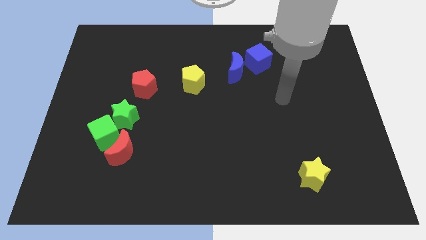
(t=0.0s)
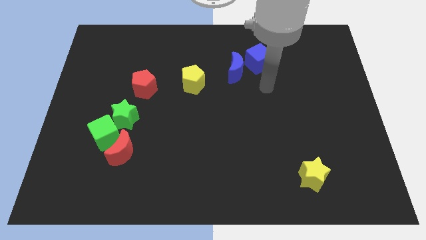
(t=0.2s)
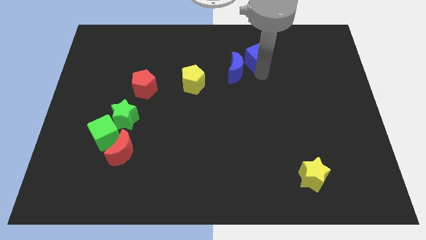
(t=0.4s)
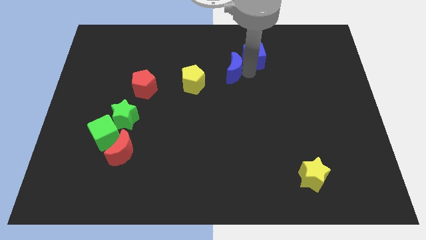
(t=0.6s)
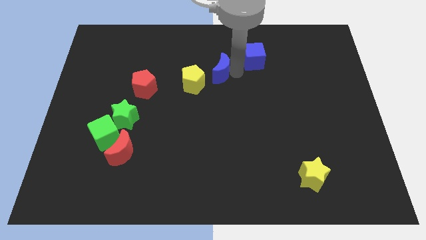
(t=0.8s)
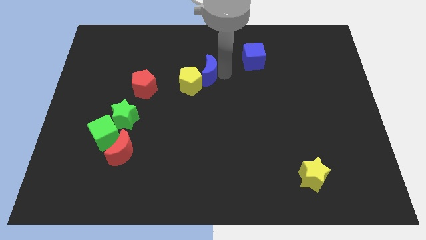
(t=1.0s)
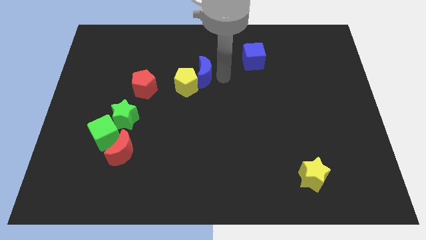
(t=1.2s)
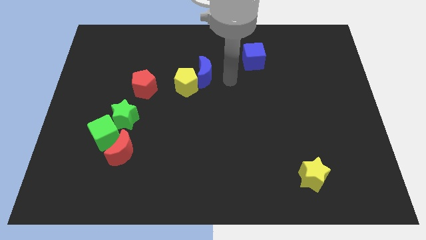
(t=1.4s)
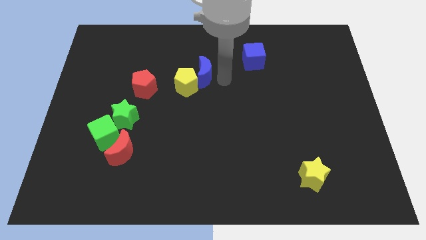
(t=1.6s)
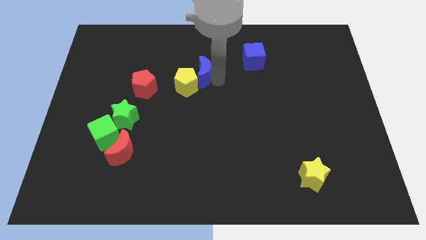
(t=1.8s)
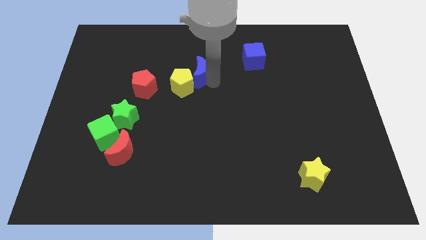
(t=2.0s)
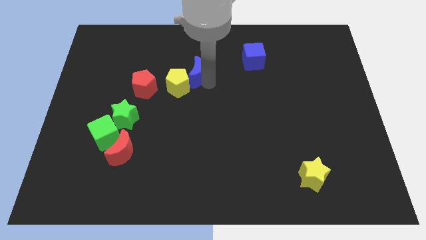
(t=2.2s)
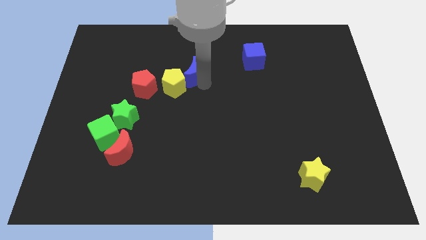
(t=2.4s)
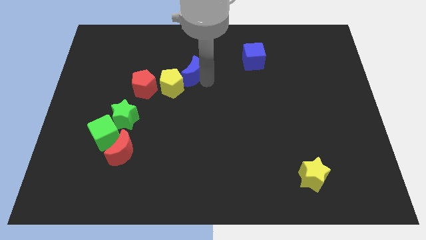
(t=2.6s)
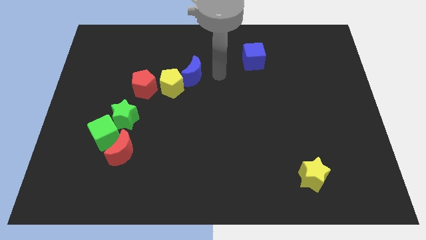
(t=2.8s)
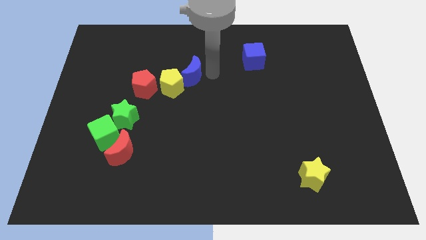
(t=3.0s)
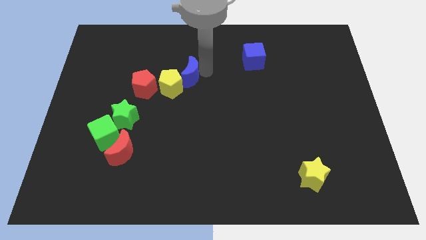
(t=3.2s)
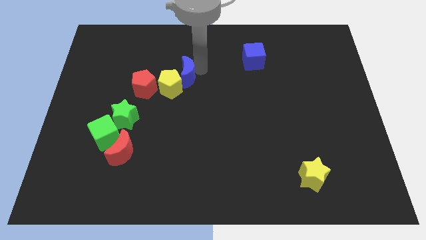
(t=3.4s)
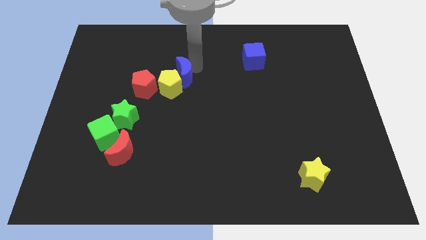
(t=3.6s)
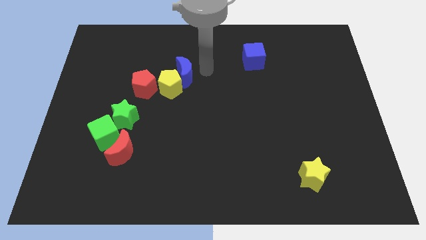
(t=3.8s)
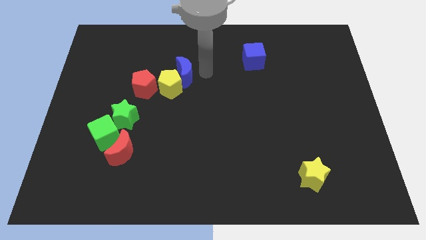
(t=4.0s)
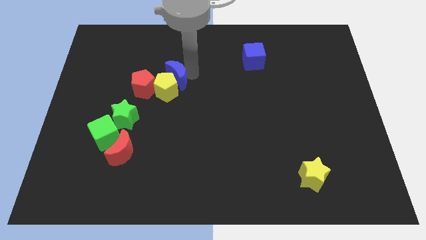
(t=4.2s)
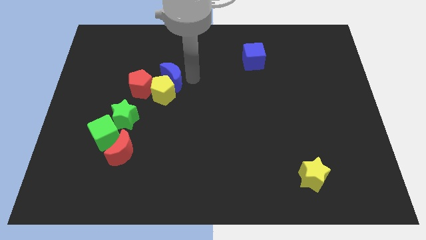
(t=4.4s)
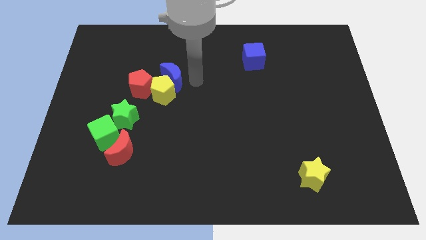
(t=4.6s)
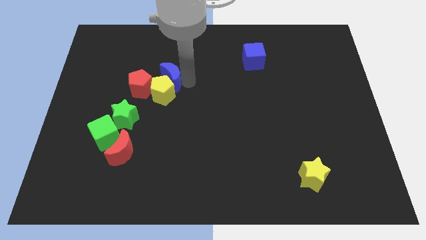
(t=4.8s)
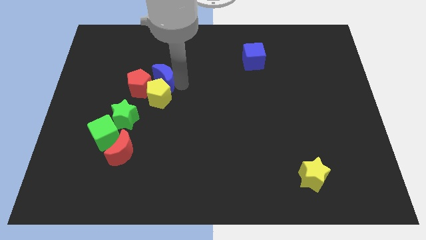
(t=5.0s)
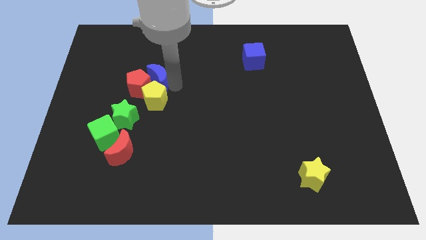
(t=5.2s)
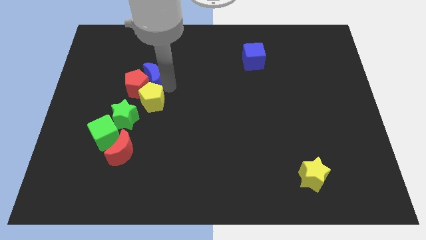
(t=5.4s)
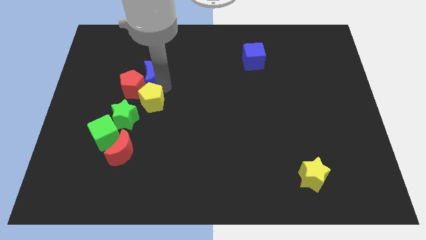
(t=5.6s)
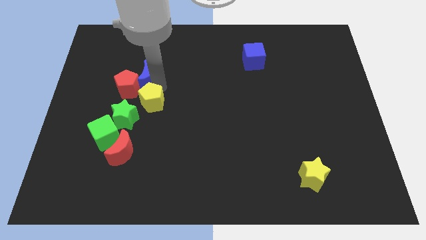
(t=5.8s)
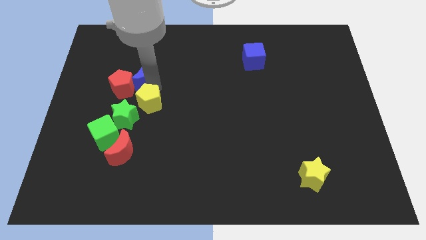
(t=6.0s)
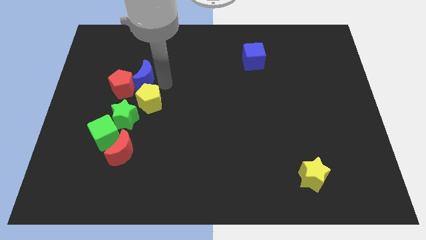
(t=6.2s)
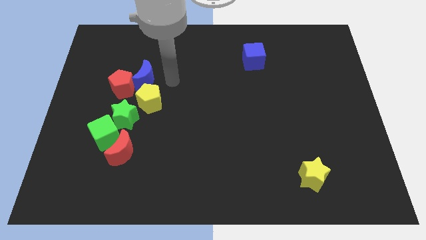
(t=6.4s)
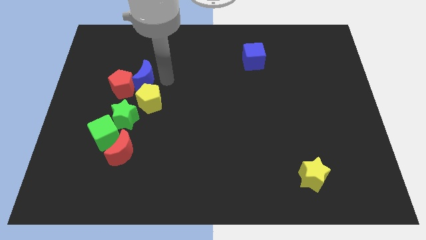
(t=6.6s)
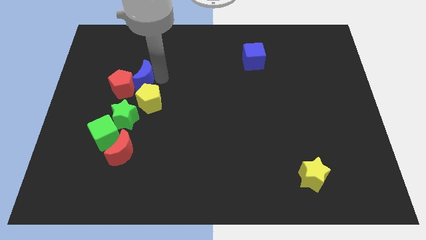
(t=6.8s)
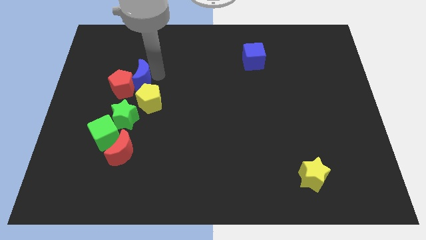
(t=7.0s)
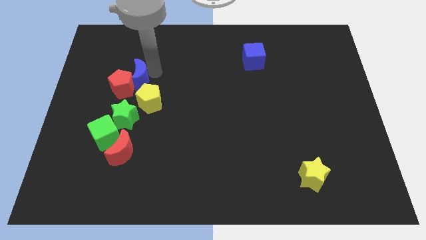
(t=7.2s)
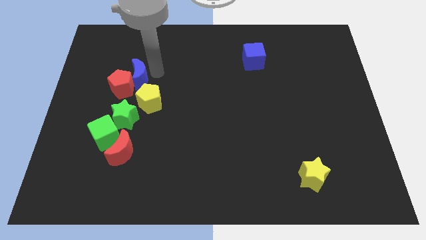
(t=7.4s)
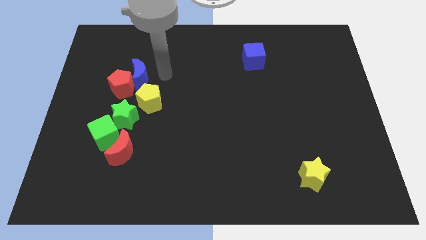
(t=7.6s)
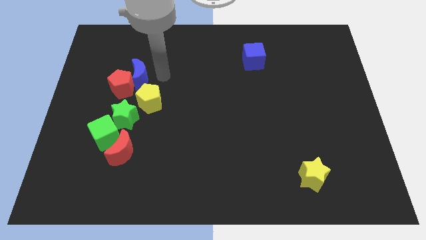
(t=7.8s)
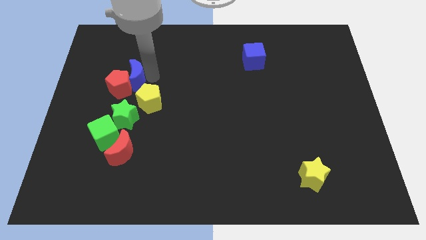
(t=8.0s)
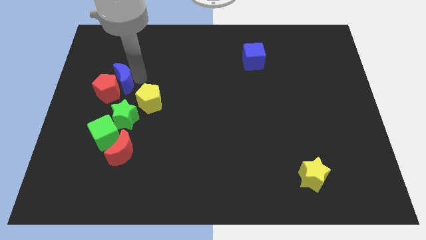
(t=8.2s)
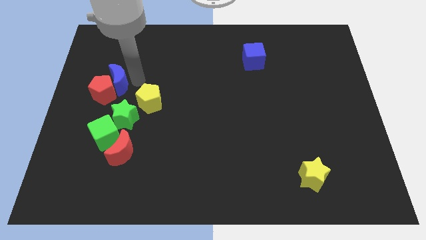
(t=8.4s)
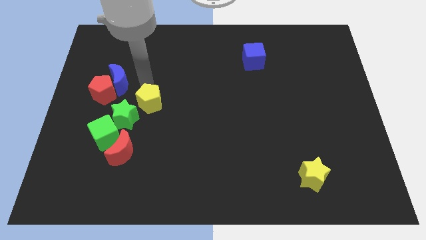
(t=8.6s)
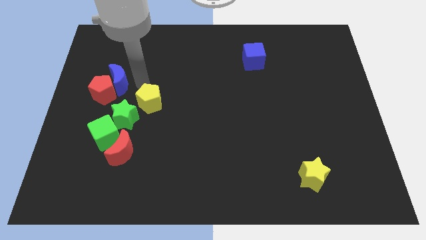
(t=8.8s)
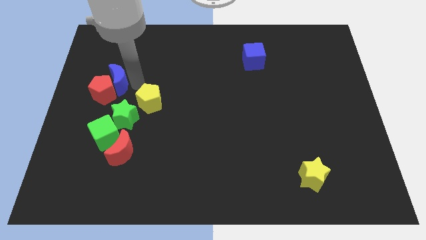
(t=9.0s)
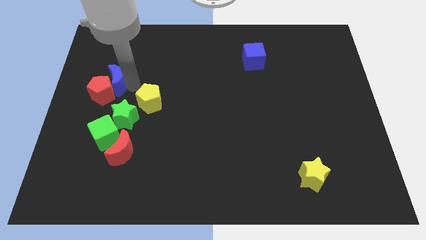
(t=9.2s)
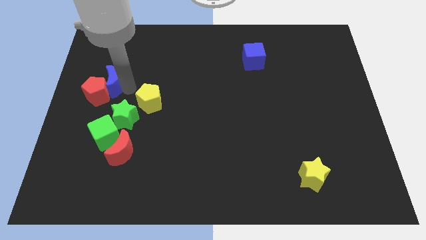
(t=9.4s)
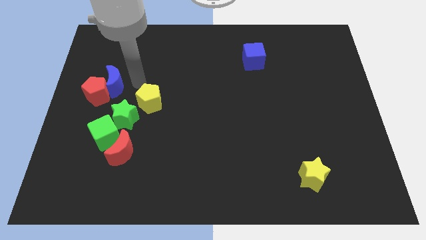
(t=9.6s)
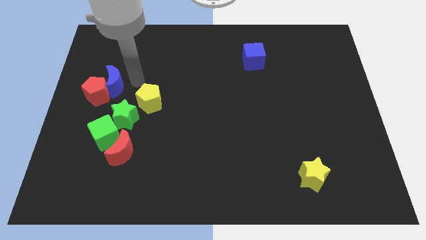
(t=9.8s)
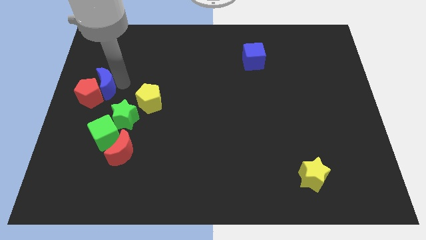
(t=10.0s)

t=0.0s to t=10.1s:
slide the blue moon to the center left

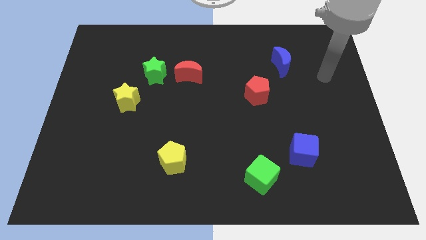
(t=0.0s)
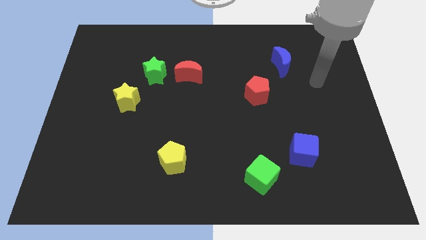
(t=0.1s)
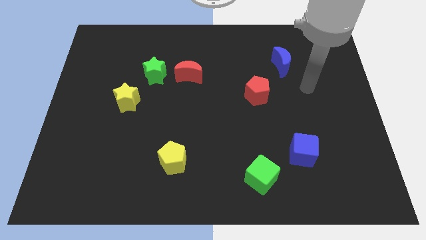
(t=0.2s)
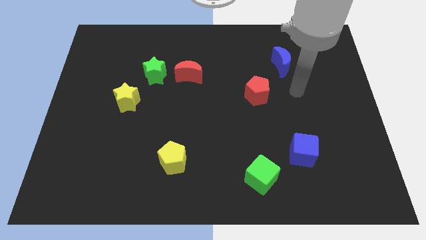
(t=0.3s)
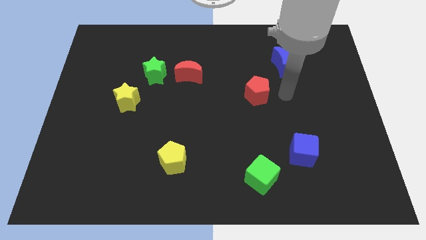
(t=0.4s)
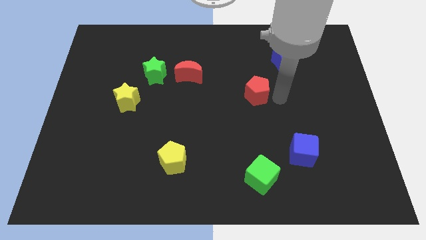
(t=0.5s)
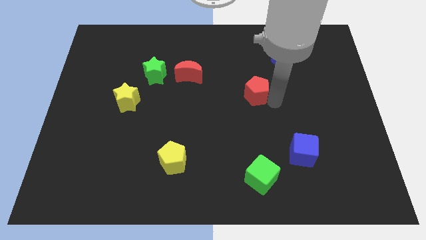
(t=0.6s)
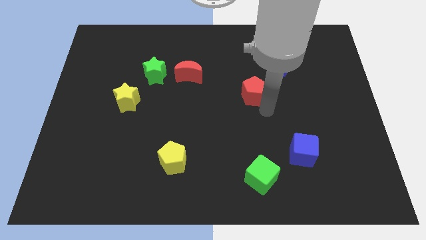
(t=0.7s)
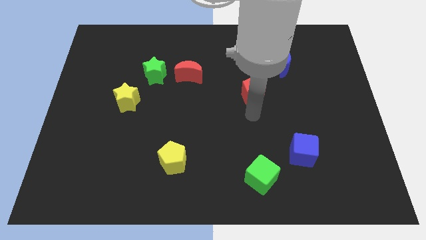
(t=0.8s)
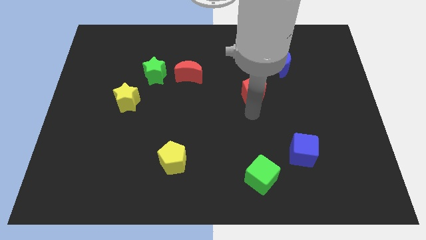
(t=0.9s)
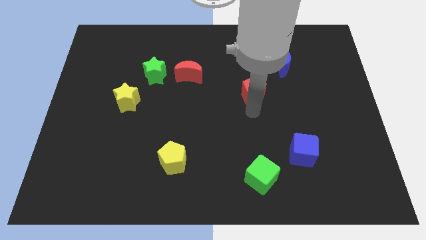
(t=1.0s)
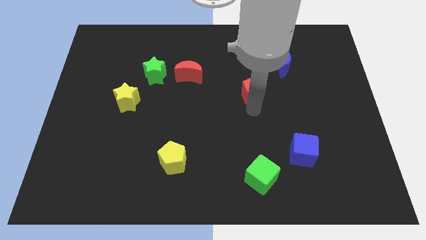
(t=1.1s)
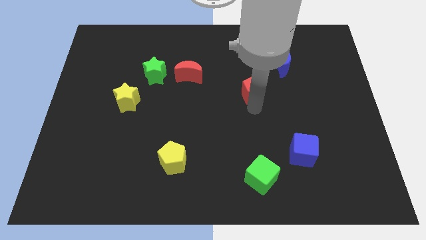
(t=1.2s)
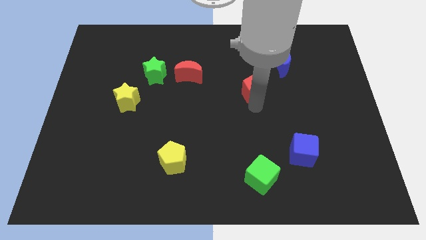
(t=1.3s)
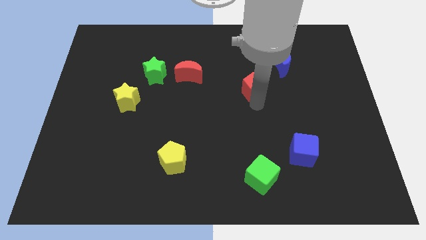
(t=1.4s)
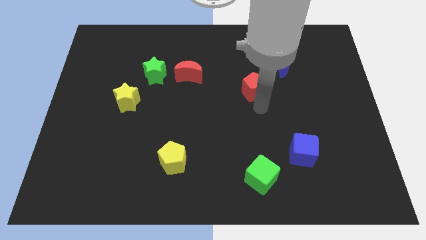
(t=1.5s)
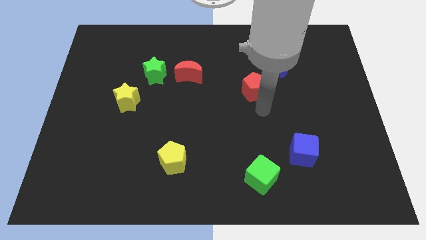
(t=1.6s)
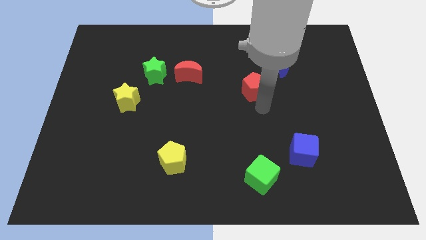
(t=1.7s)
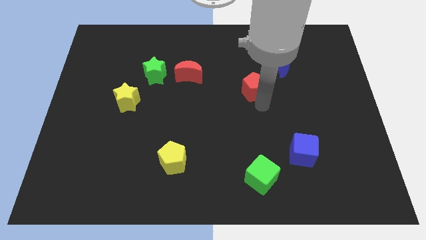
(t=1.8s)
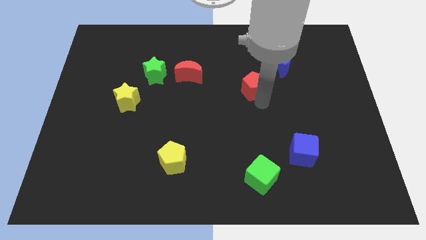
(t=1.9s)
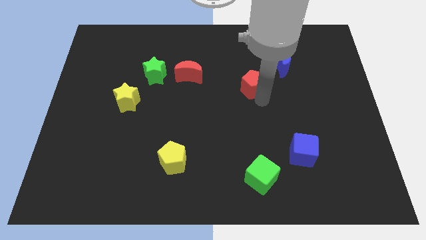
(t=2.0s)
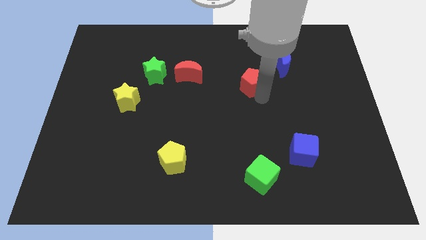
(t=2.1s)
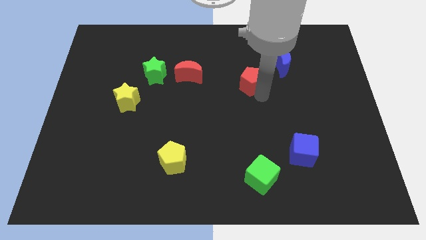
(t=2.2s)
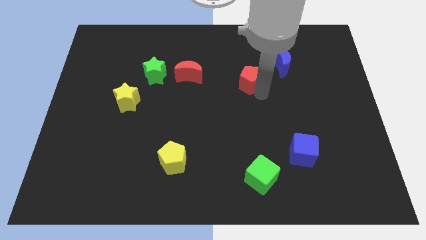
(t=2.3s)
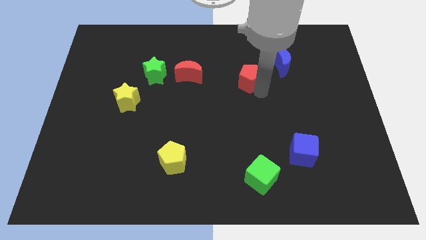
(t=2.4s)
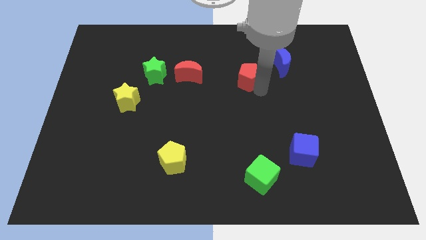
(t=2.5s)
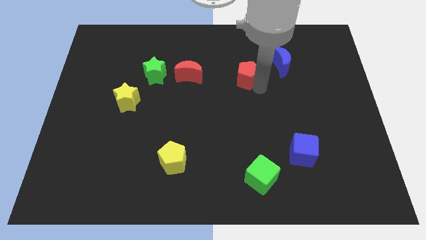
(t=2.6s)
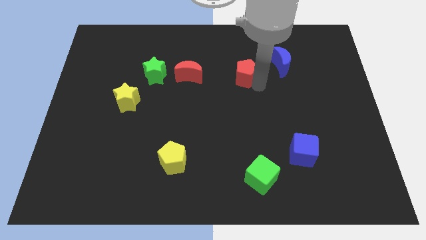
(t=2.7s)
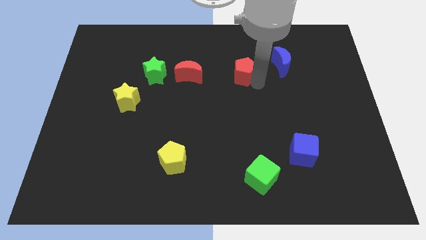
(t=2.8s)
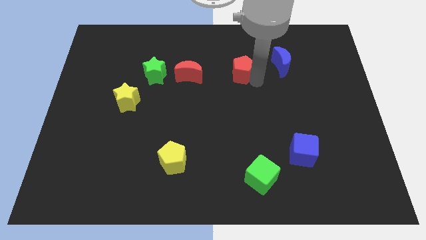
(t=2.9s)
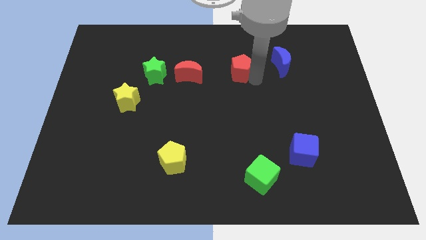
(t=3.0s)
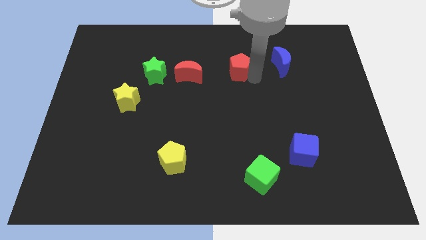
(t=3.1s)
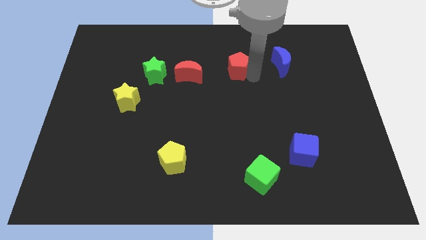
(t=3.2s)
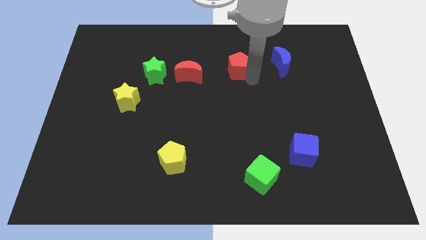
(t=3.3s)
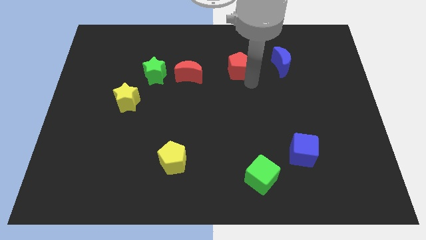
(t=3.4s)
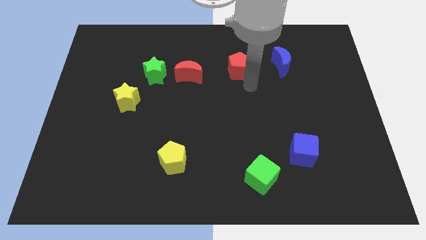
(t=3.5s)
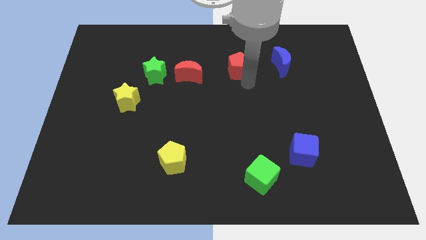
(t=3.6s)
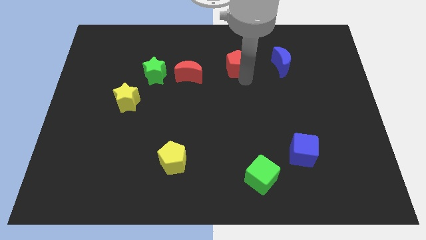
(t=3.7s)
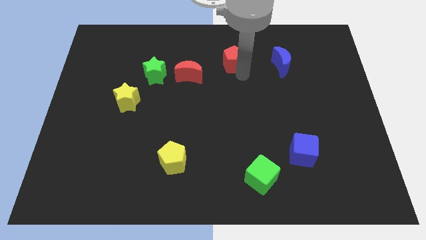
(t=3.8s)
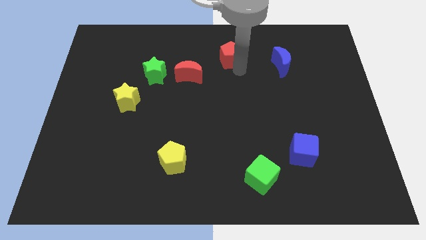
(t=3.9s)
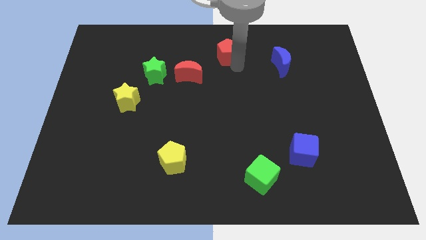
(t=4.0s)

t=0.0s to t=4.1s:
push the red pentagon to the top side
